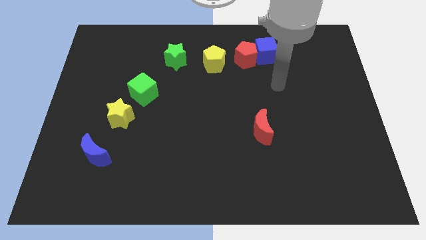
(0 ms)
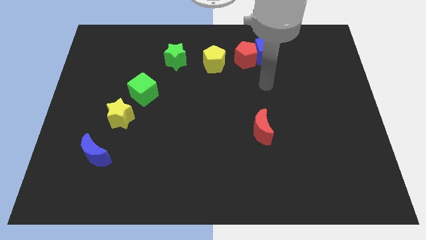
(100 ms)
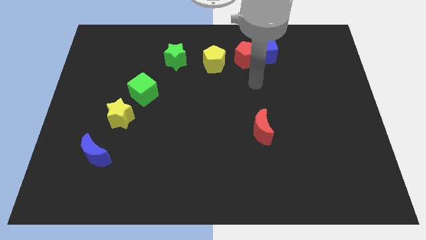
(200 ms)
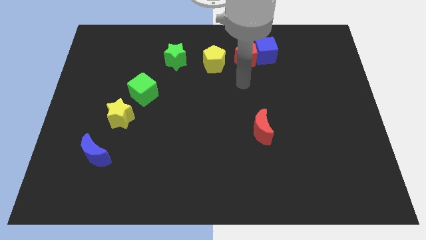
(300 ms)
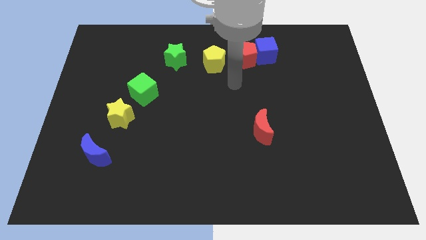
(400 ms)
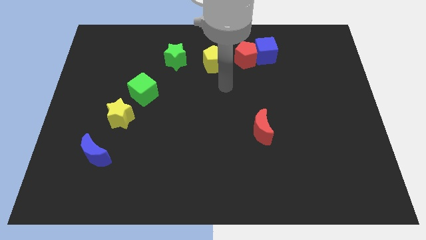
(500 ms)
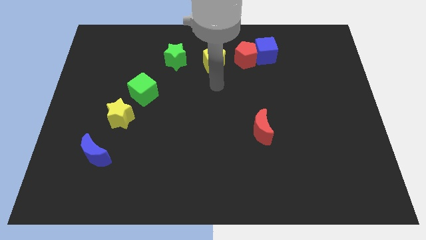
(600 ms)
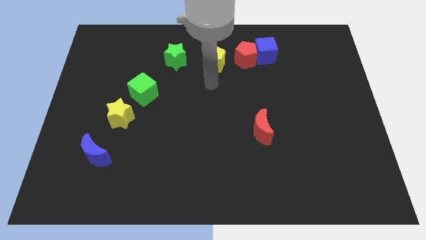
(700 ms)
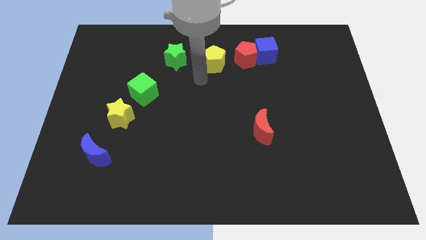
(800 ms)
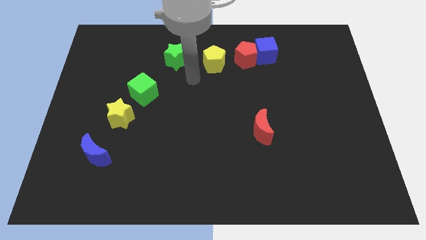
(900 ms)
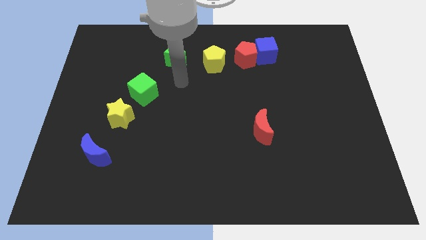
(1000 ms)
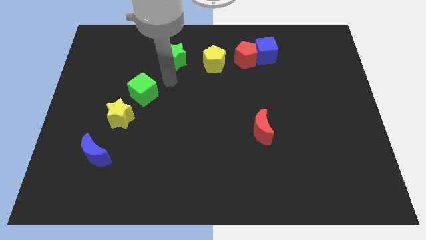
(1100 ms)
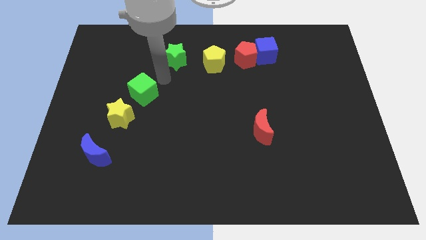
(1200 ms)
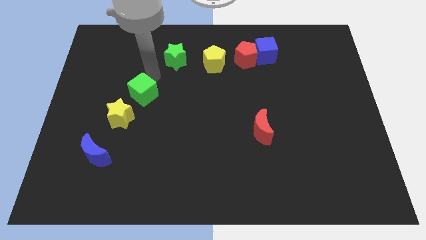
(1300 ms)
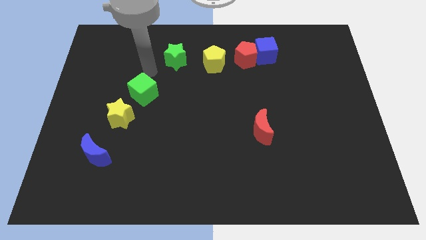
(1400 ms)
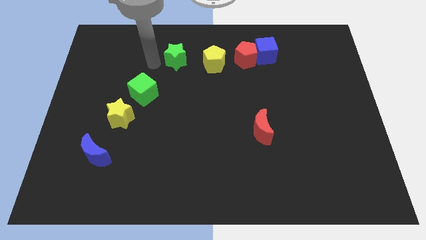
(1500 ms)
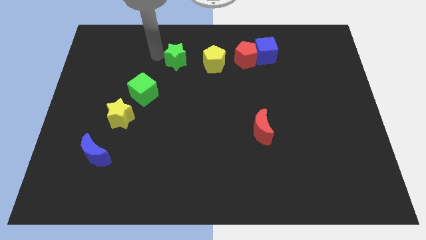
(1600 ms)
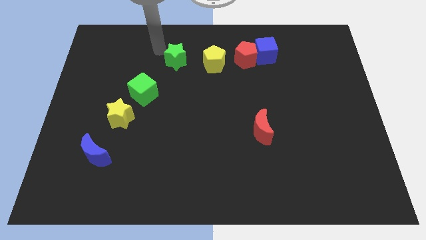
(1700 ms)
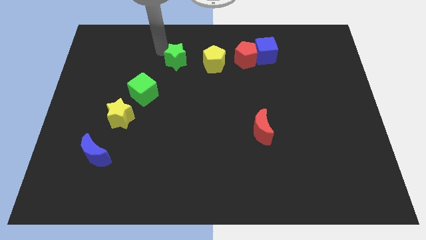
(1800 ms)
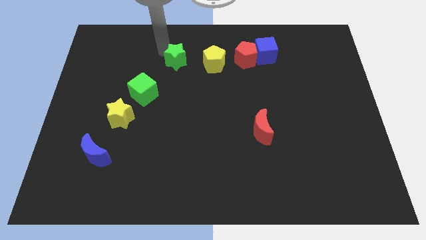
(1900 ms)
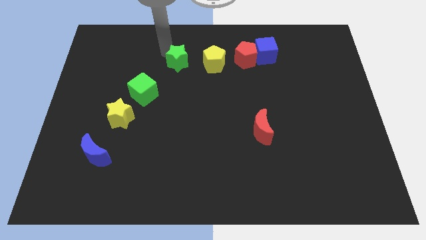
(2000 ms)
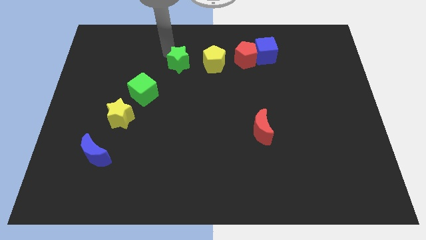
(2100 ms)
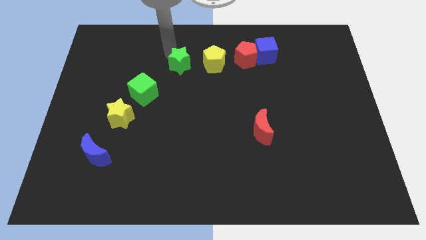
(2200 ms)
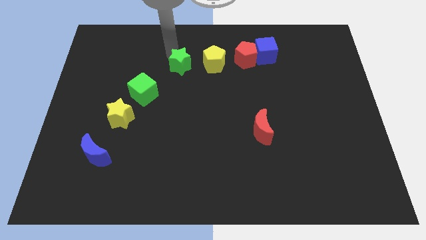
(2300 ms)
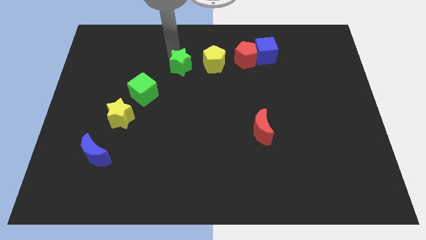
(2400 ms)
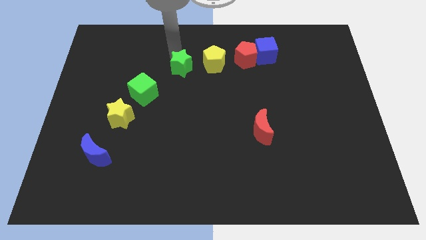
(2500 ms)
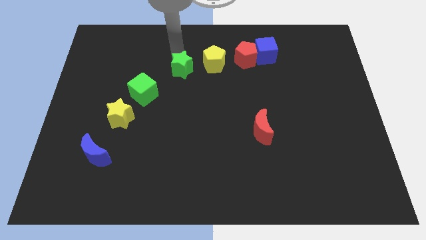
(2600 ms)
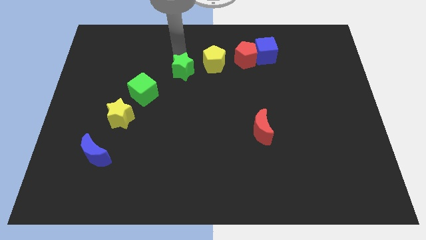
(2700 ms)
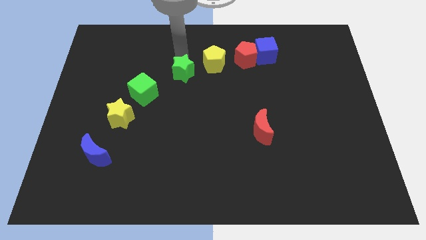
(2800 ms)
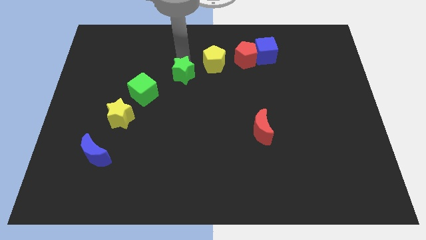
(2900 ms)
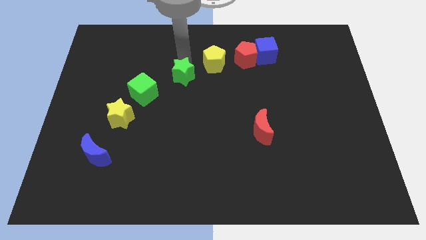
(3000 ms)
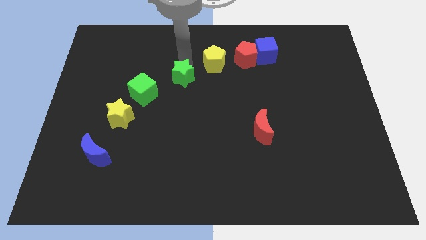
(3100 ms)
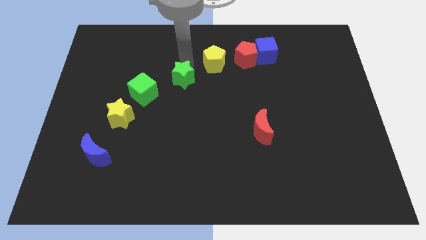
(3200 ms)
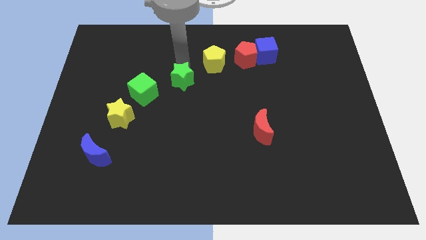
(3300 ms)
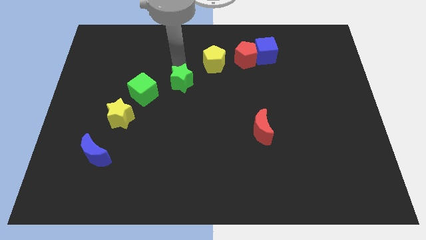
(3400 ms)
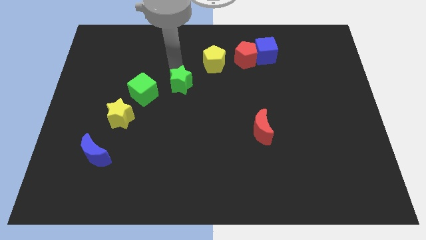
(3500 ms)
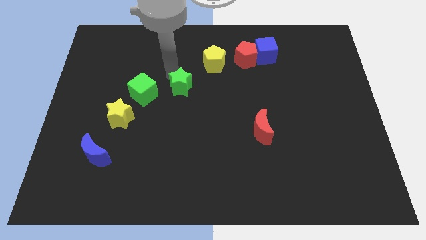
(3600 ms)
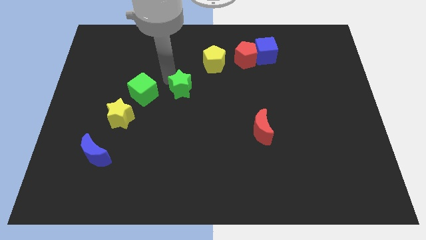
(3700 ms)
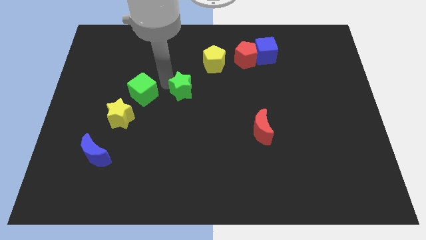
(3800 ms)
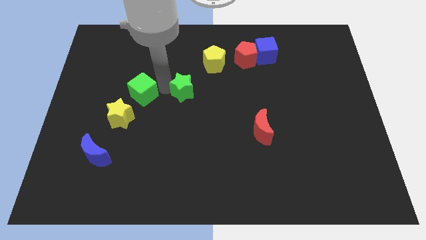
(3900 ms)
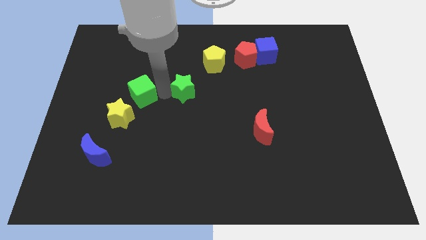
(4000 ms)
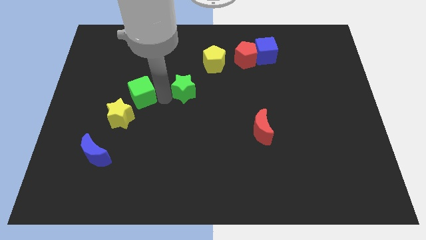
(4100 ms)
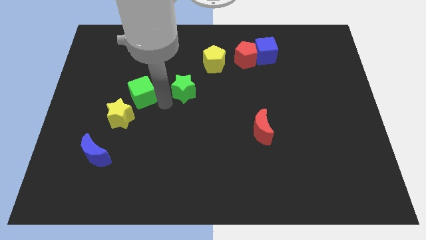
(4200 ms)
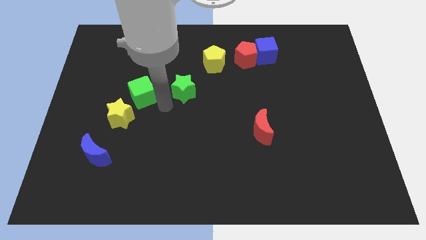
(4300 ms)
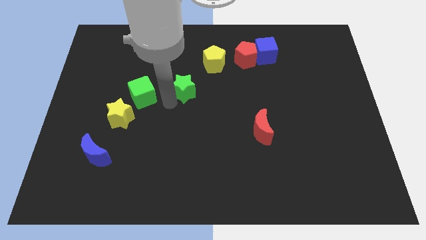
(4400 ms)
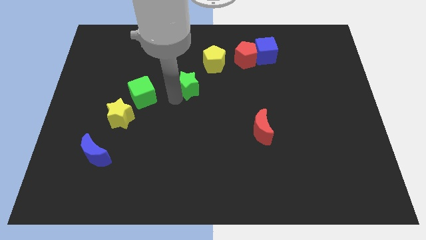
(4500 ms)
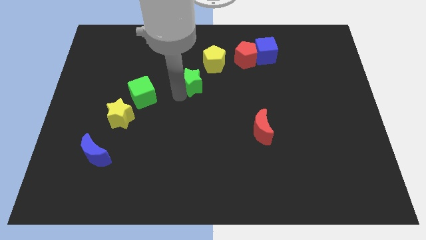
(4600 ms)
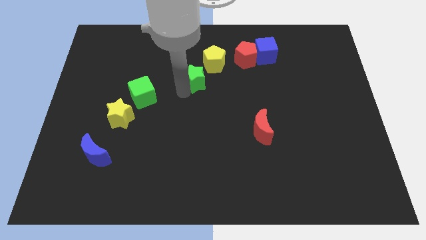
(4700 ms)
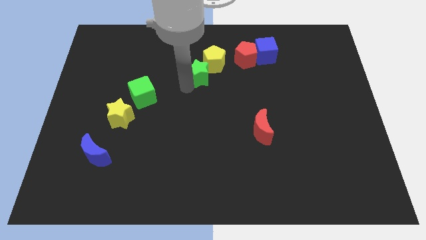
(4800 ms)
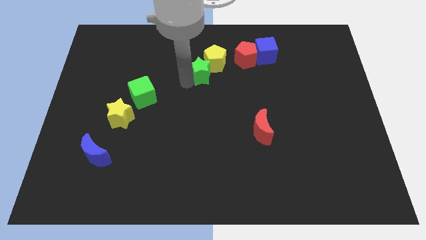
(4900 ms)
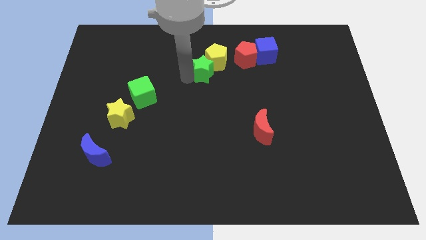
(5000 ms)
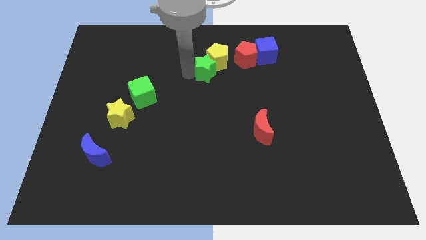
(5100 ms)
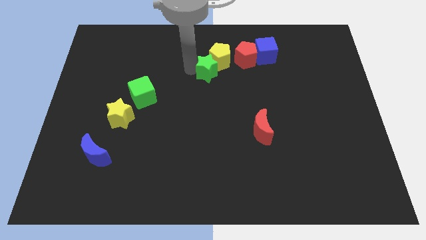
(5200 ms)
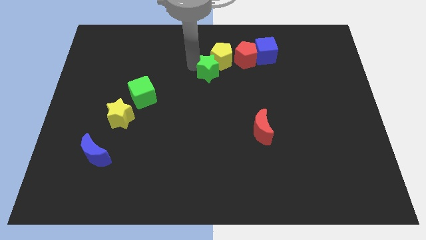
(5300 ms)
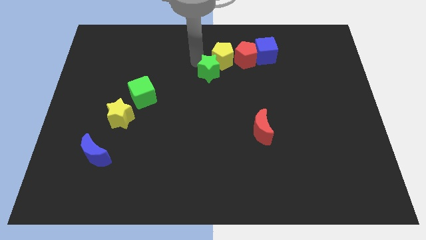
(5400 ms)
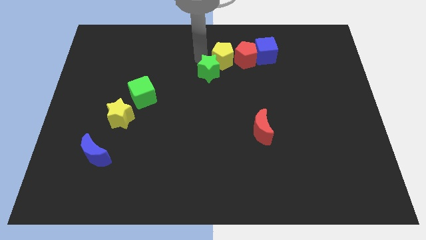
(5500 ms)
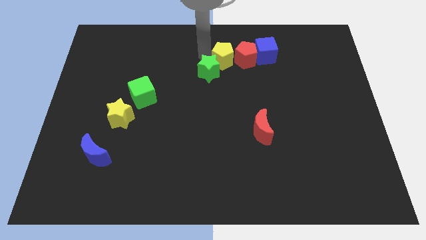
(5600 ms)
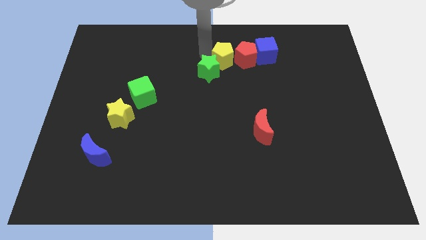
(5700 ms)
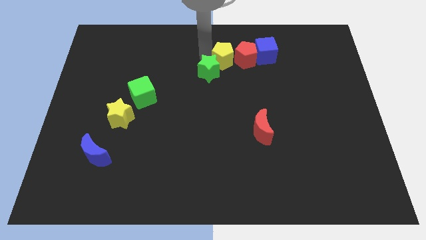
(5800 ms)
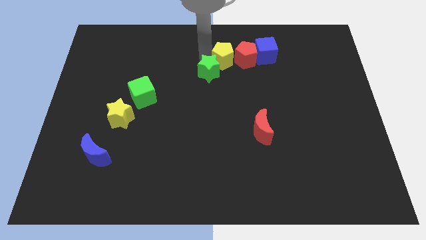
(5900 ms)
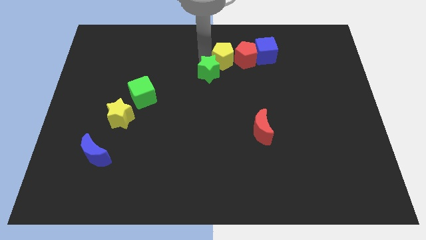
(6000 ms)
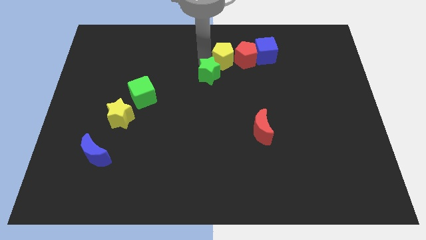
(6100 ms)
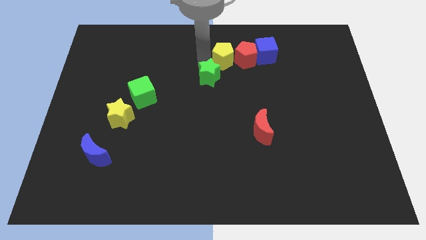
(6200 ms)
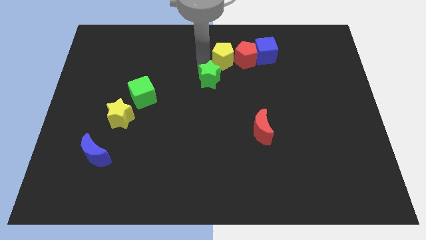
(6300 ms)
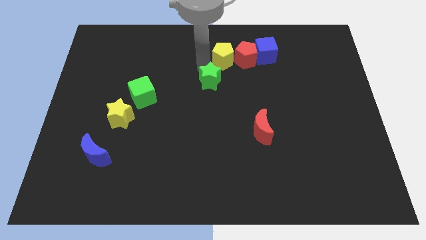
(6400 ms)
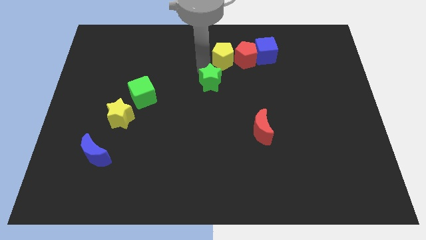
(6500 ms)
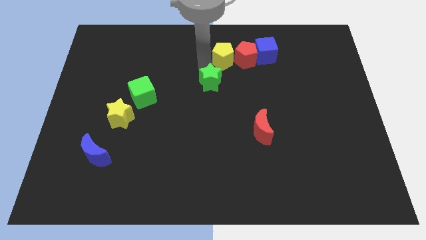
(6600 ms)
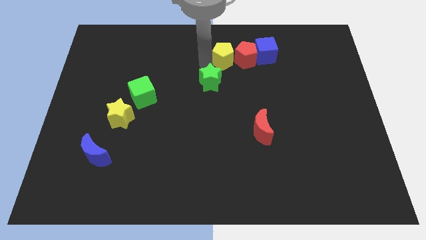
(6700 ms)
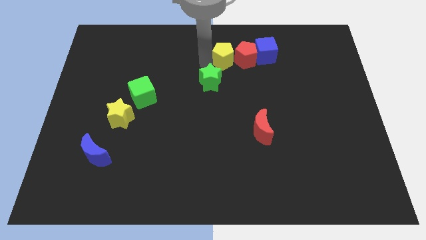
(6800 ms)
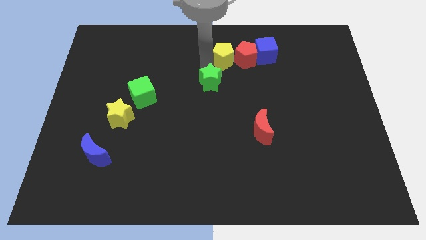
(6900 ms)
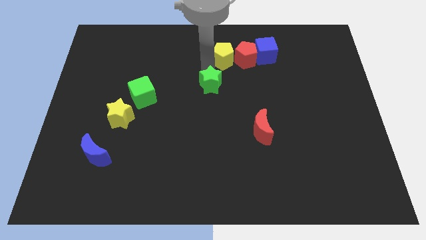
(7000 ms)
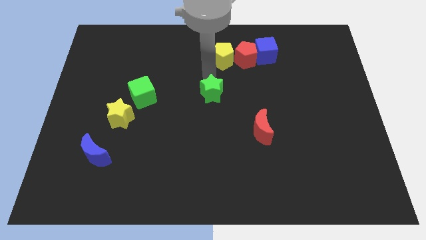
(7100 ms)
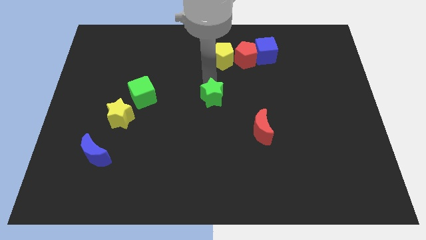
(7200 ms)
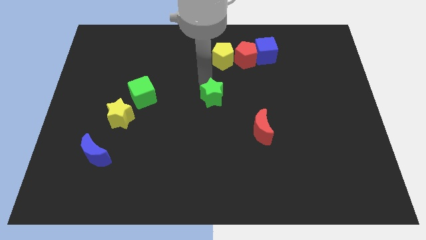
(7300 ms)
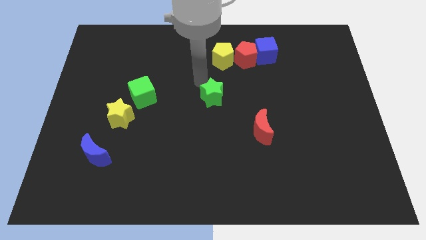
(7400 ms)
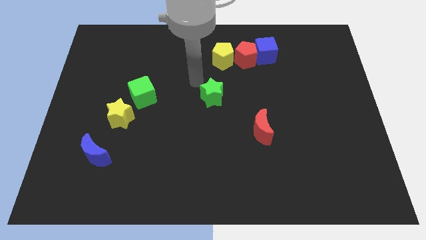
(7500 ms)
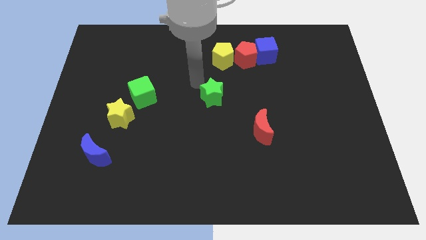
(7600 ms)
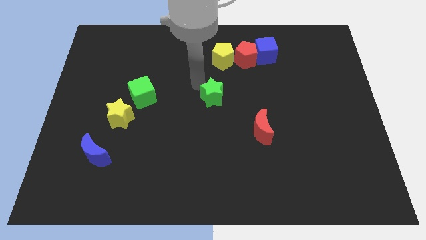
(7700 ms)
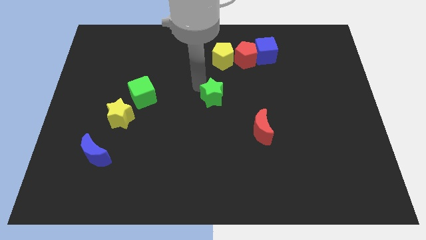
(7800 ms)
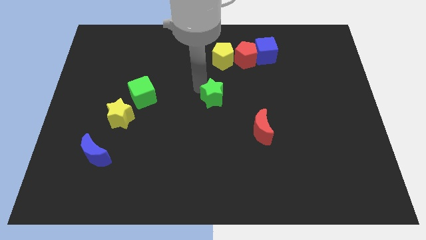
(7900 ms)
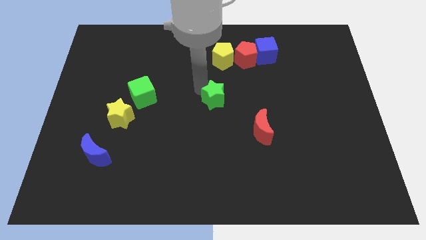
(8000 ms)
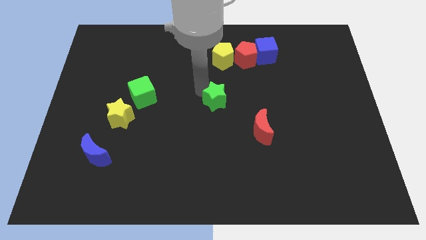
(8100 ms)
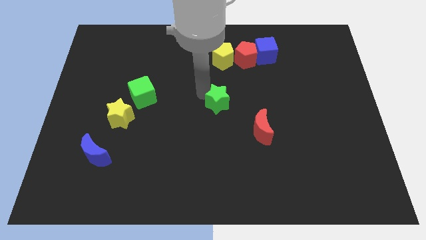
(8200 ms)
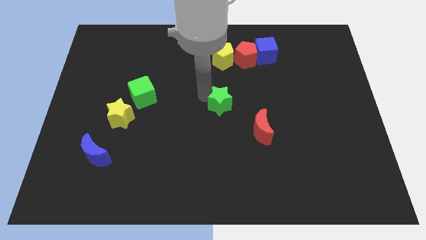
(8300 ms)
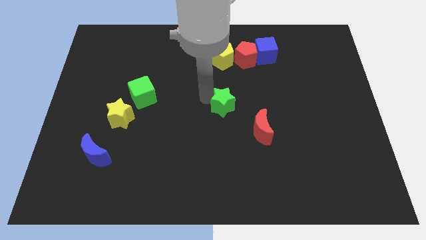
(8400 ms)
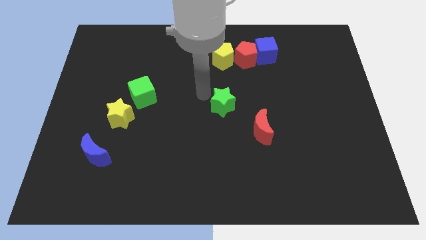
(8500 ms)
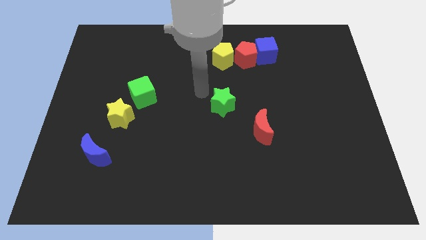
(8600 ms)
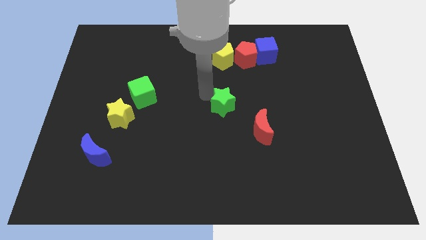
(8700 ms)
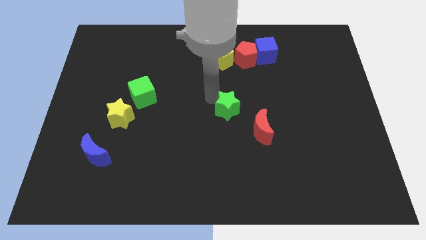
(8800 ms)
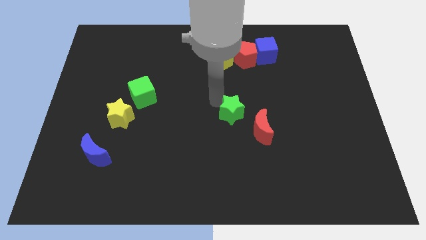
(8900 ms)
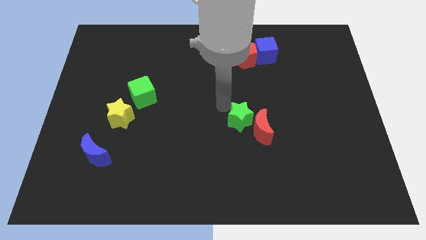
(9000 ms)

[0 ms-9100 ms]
slide the green star towards the red moon
